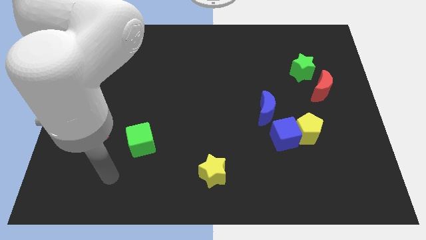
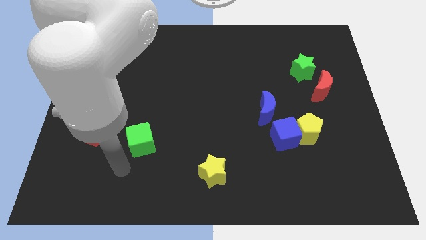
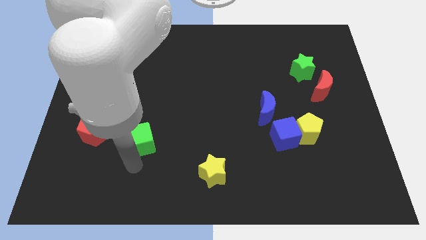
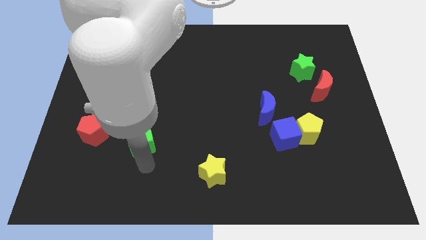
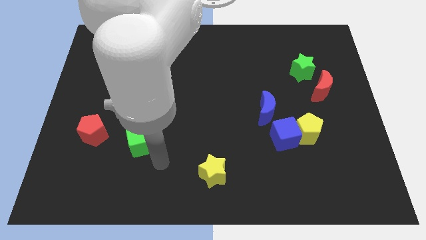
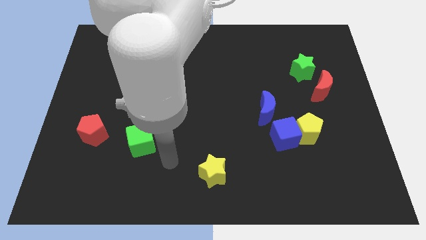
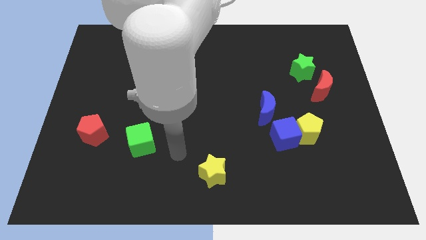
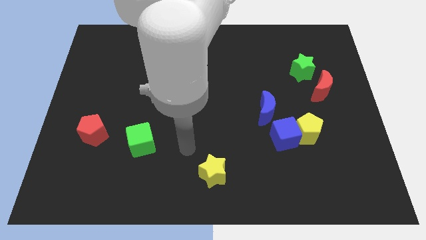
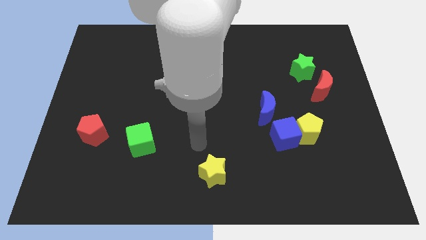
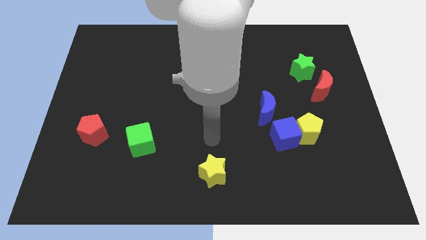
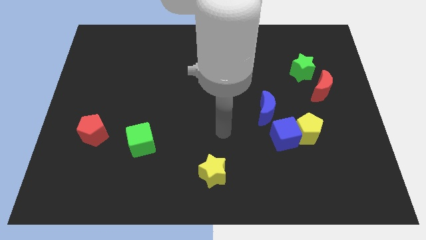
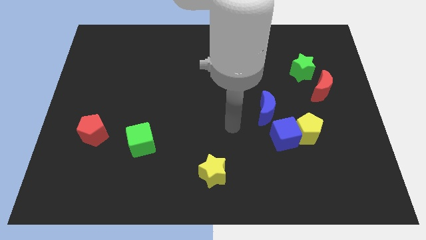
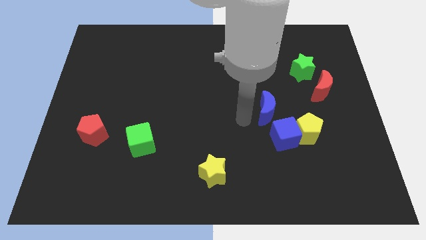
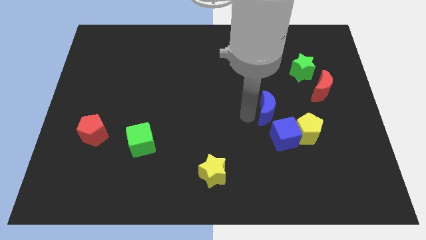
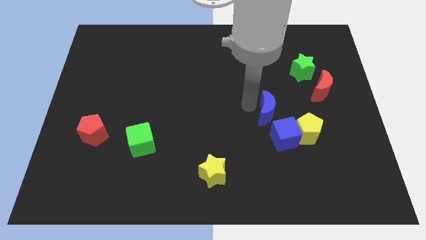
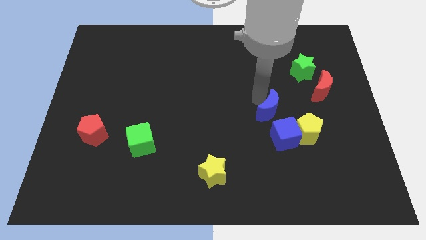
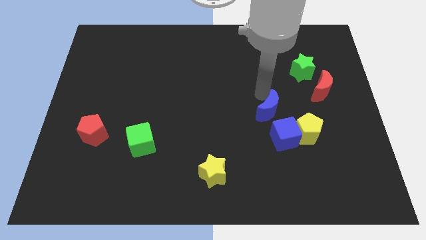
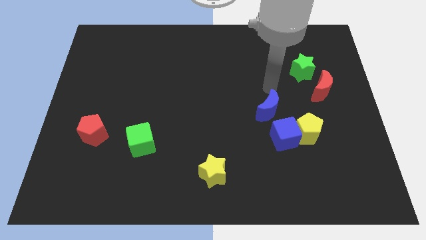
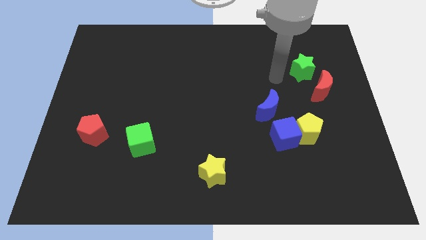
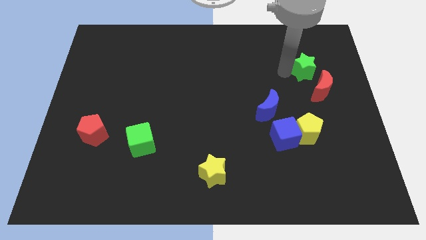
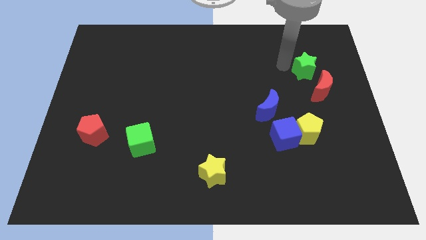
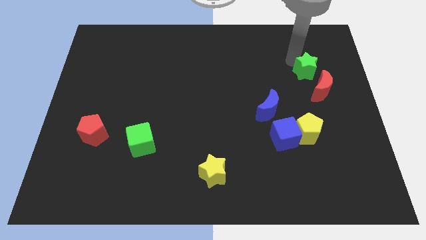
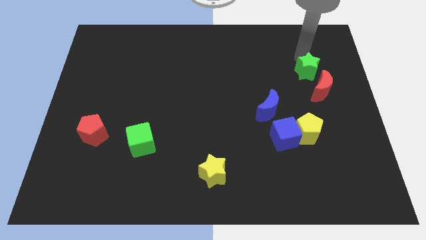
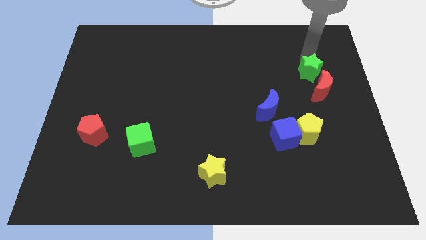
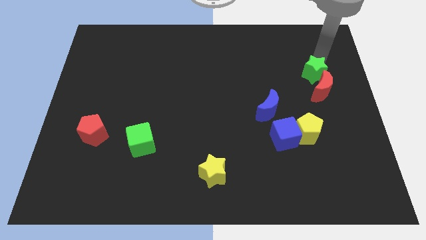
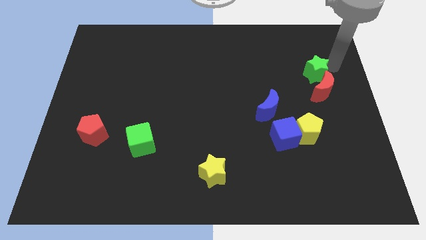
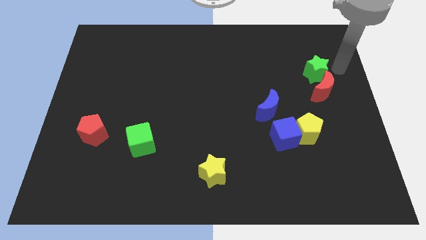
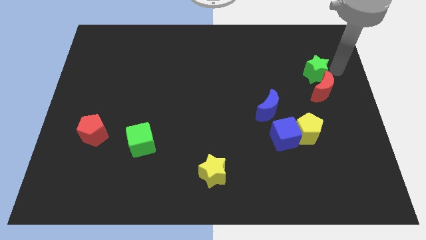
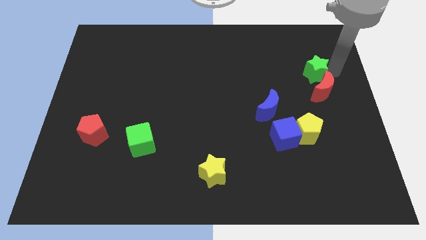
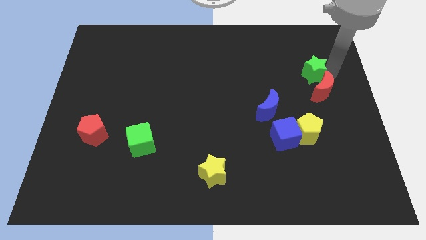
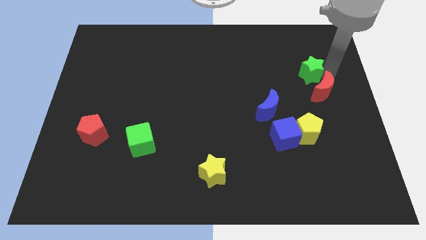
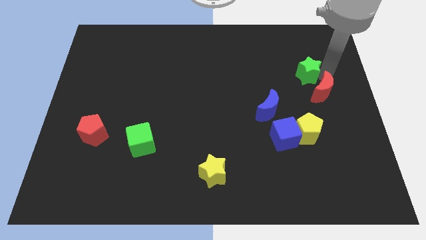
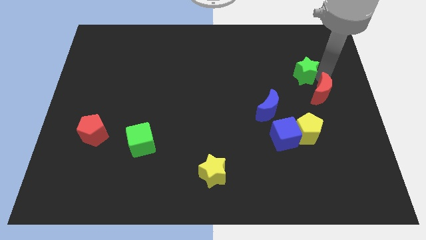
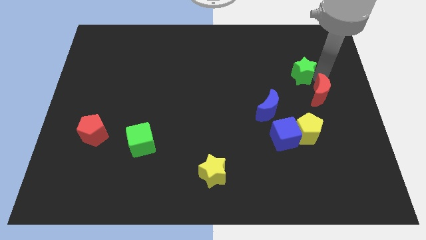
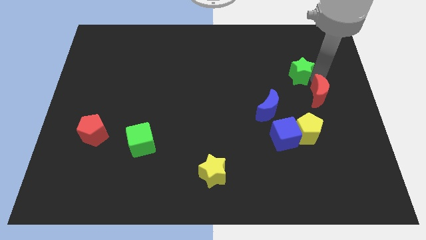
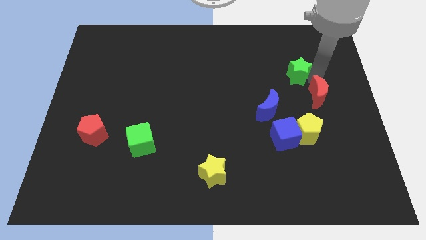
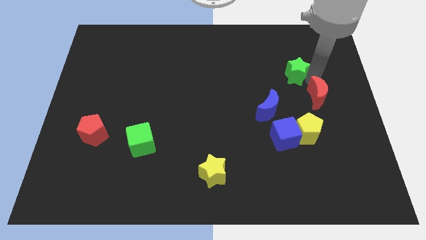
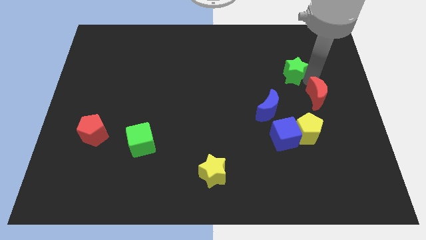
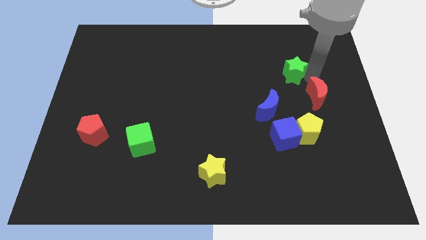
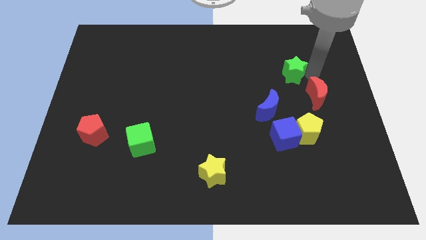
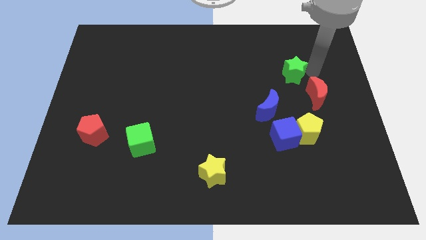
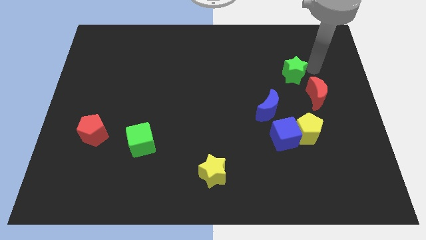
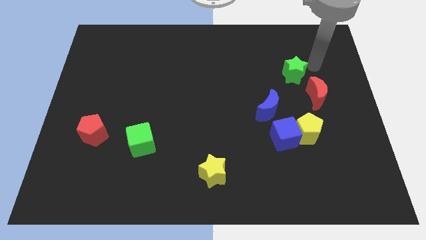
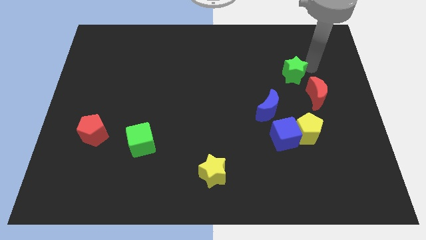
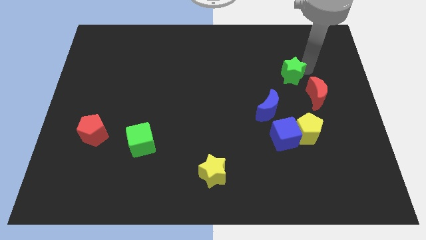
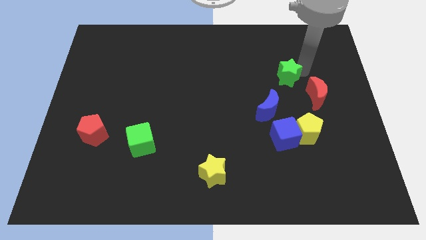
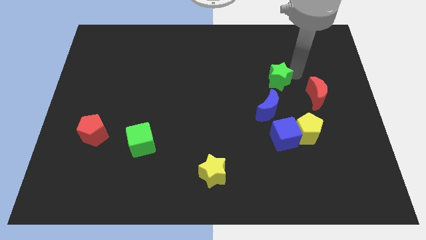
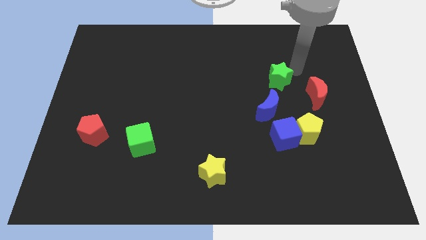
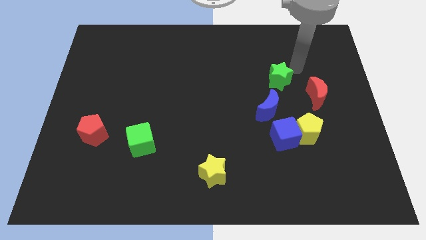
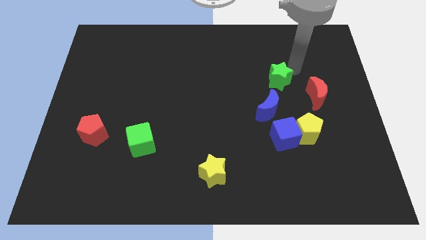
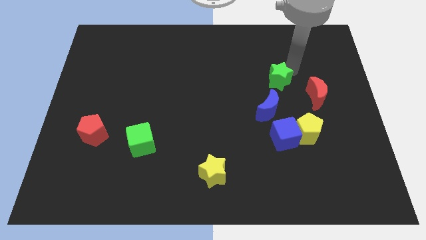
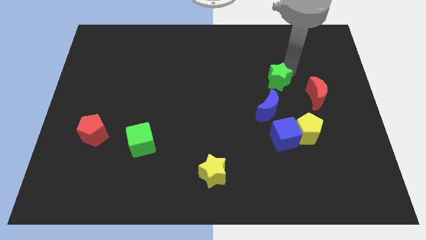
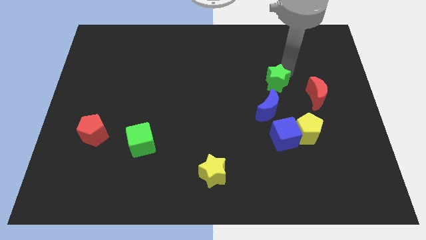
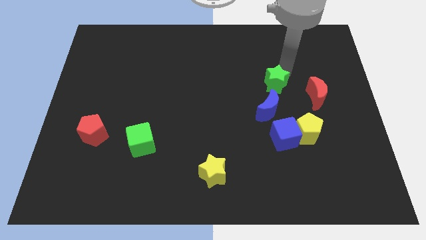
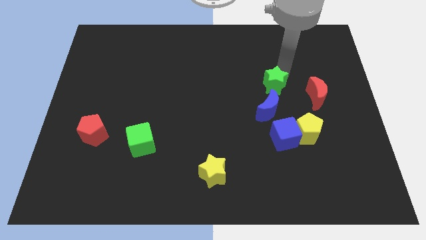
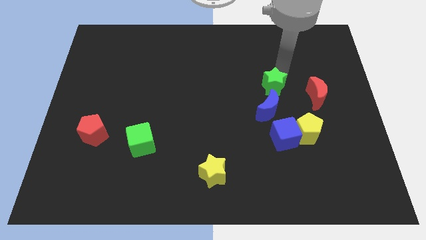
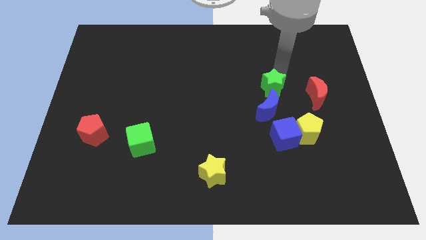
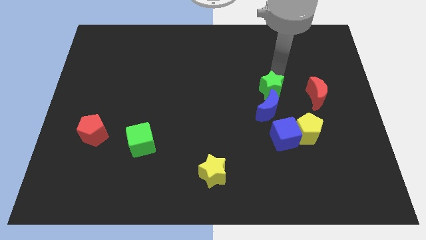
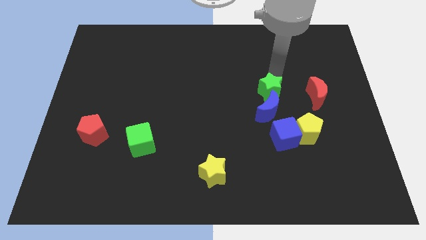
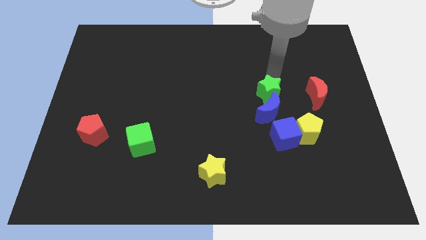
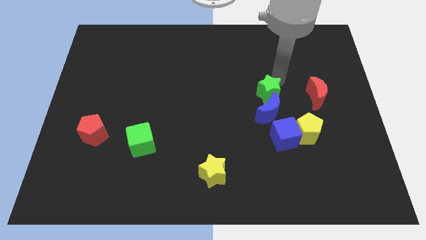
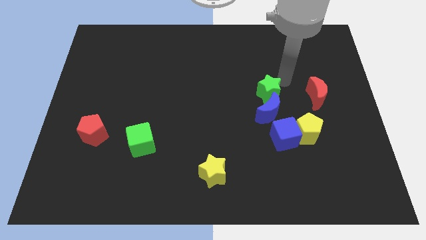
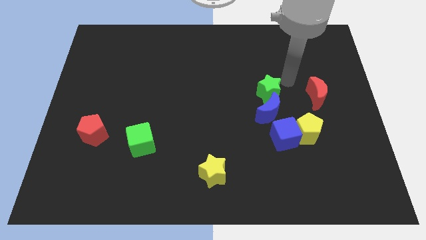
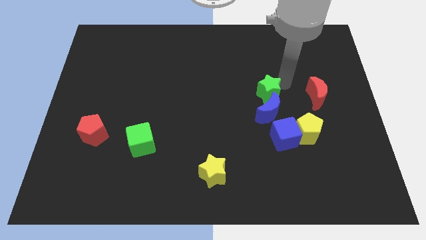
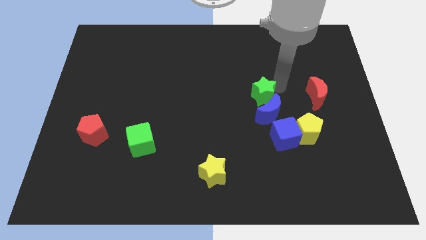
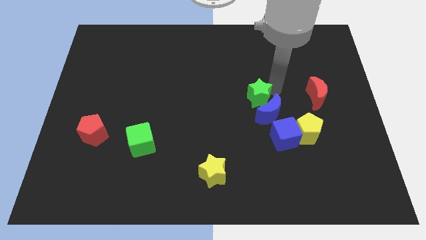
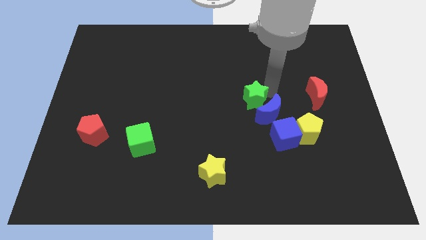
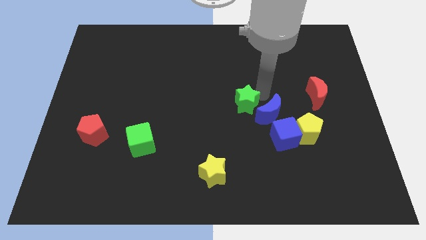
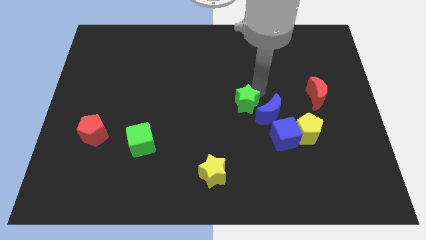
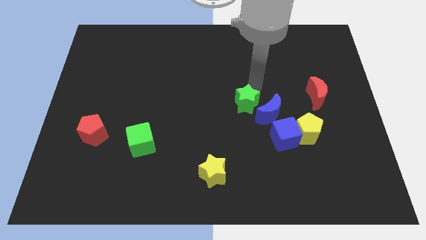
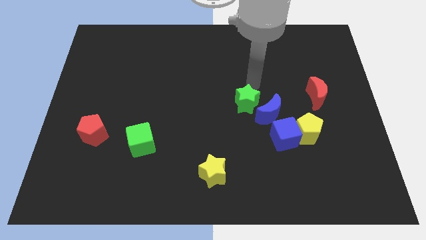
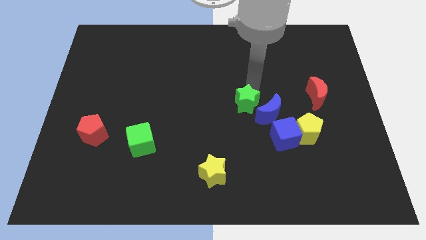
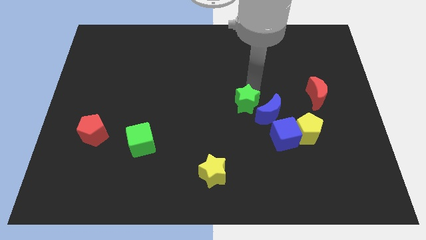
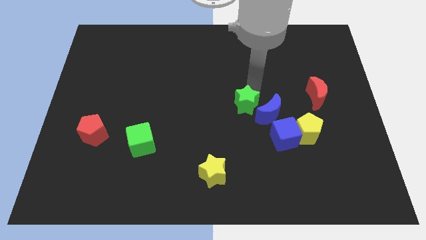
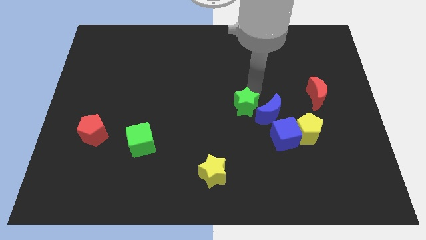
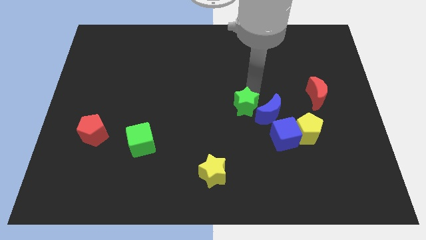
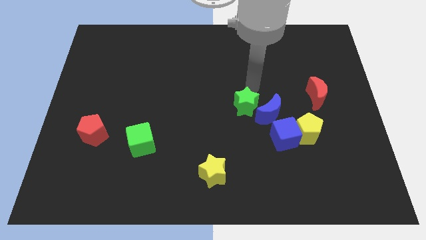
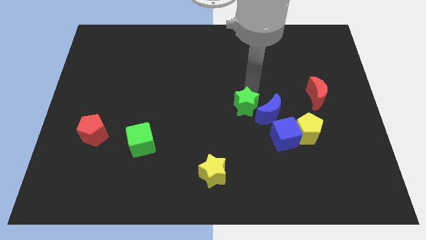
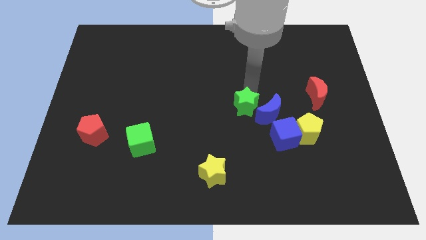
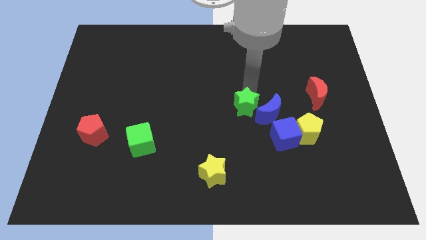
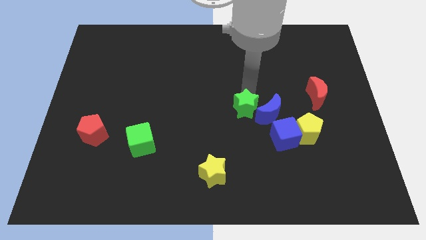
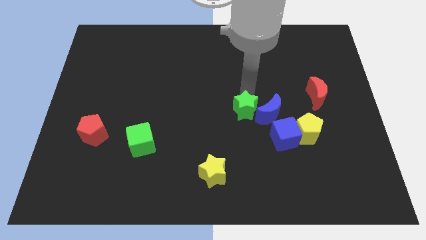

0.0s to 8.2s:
move the green star diagonally downwards and to the left
